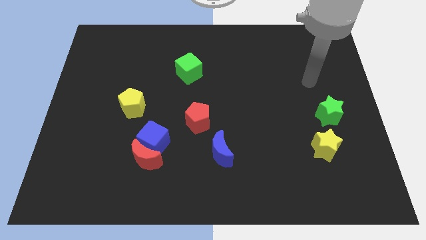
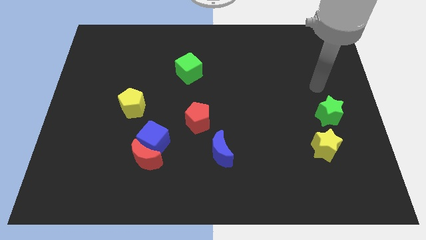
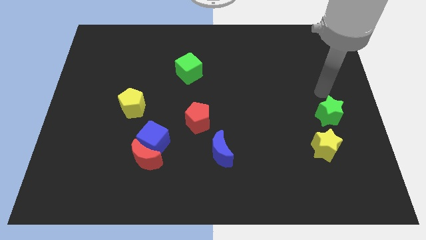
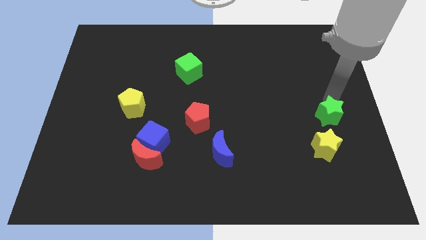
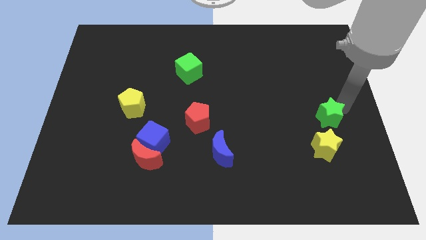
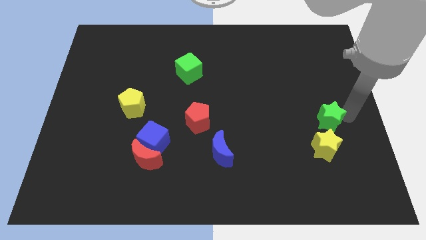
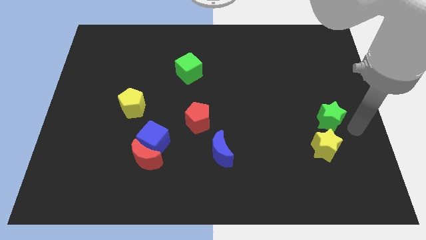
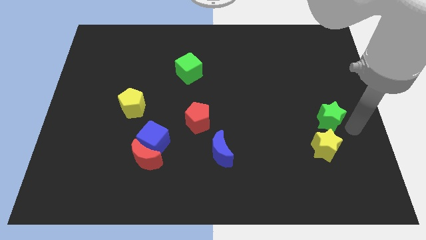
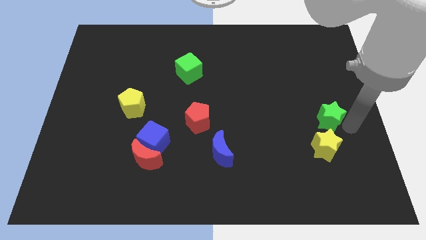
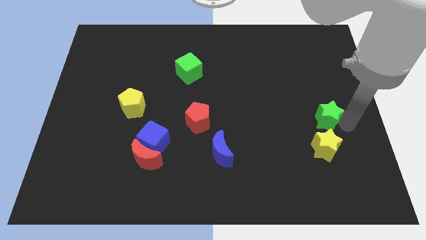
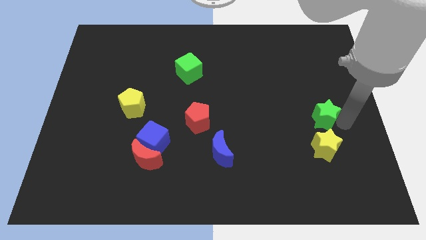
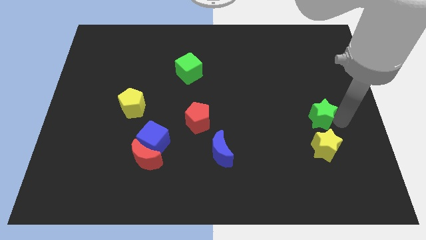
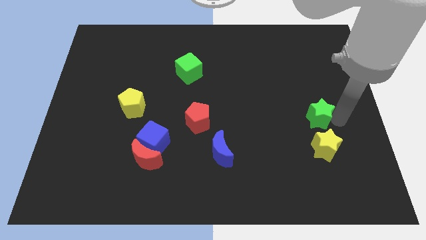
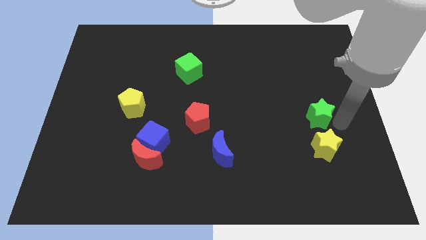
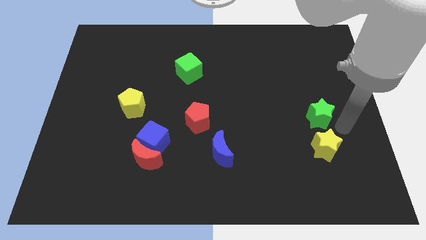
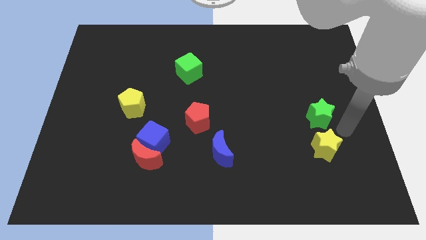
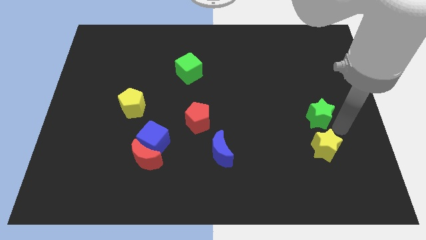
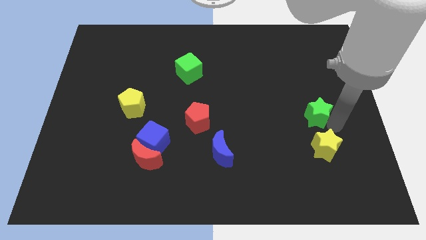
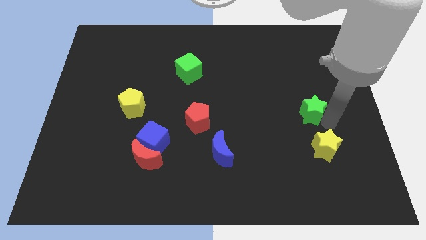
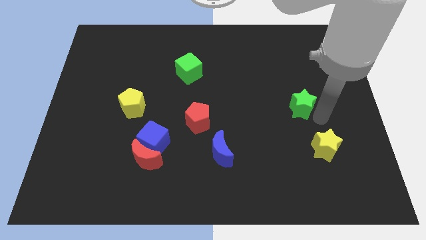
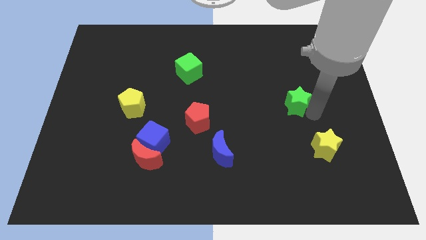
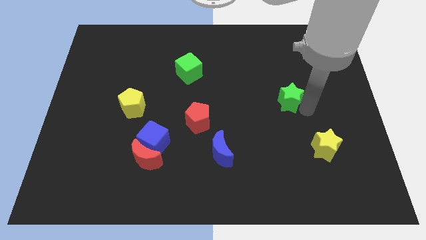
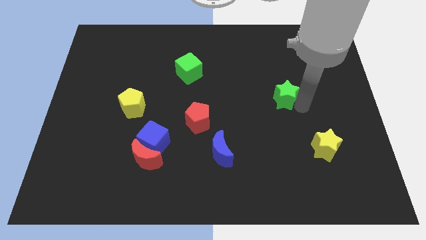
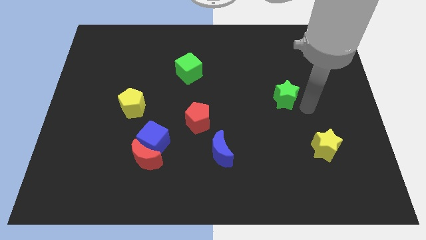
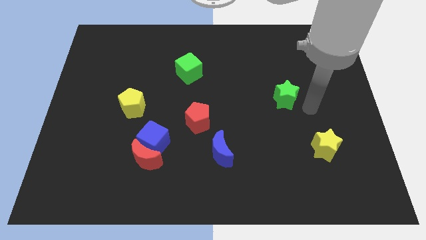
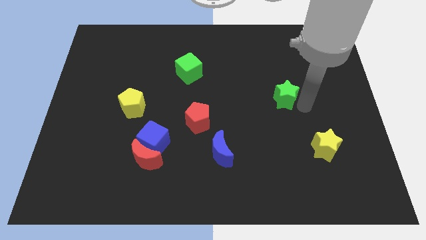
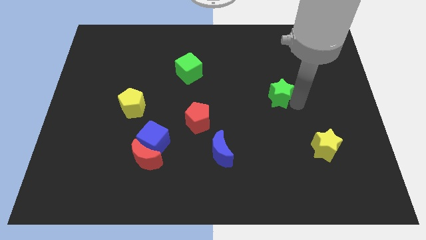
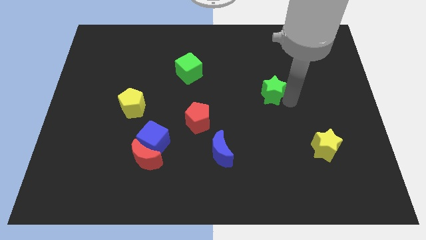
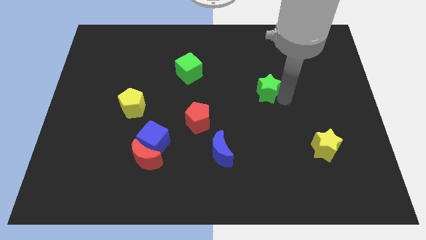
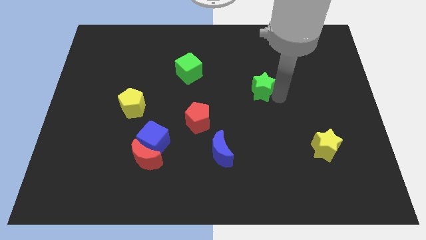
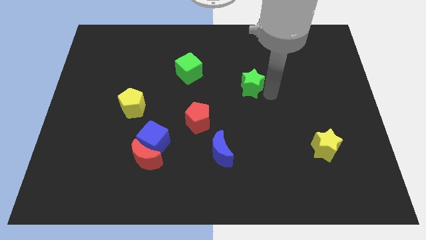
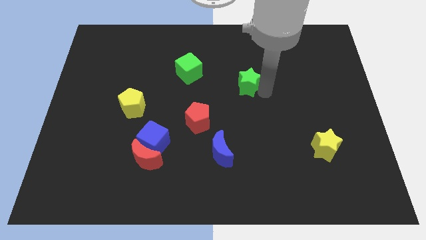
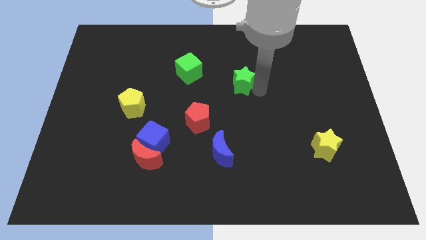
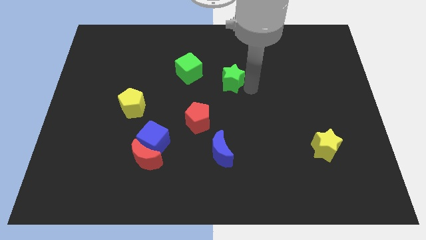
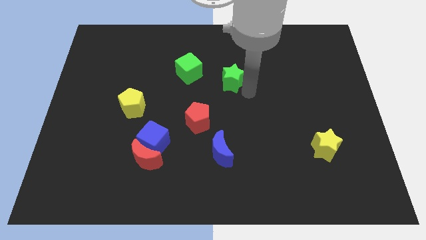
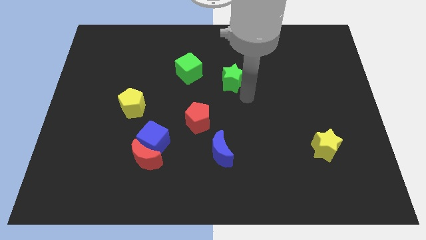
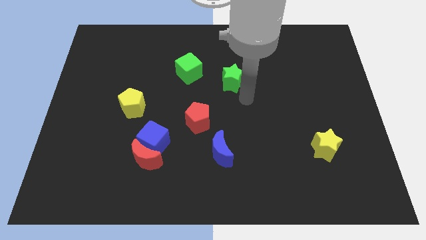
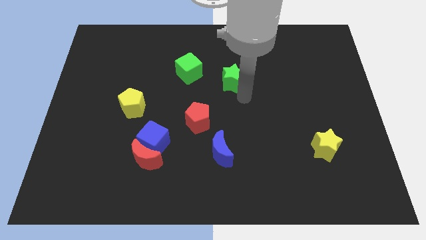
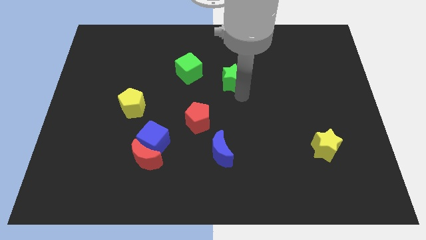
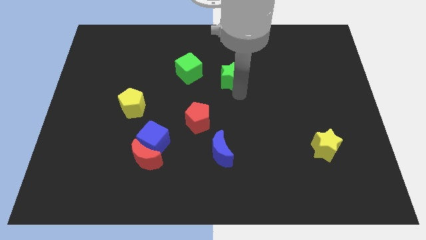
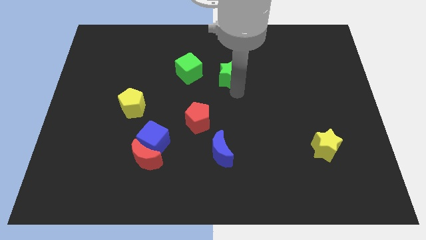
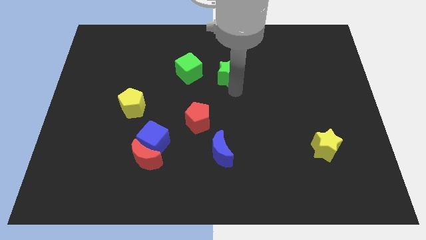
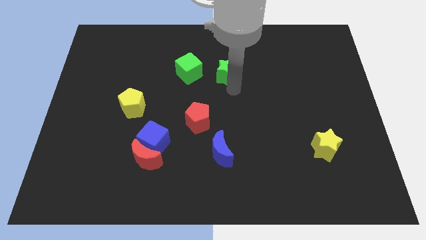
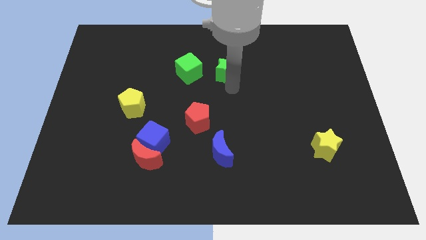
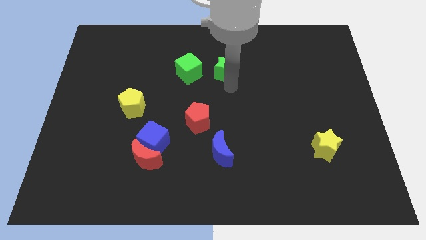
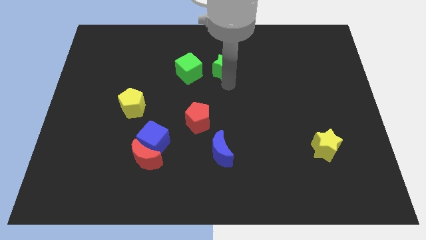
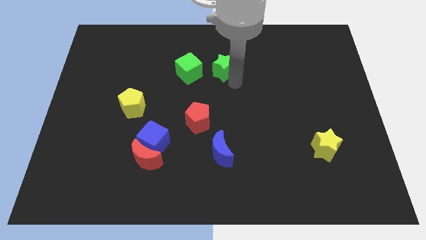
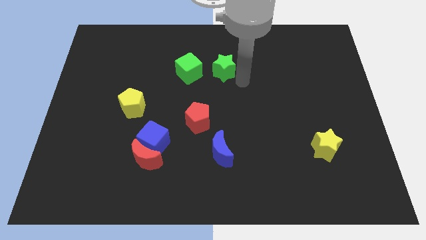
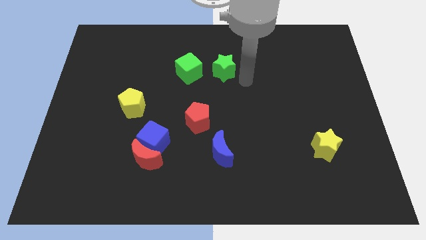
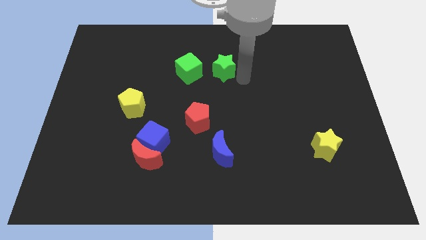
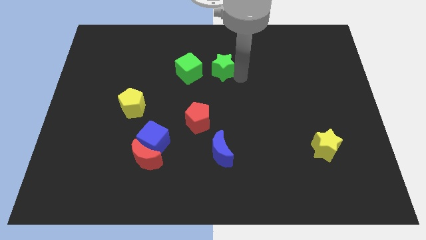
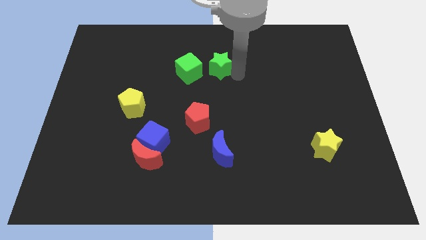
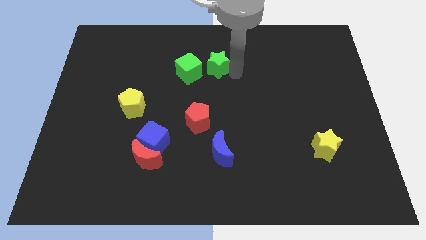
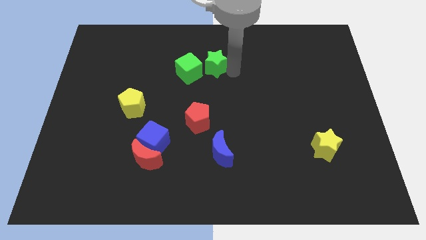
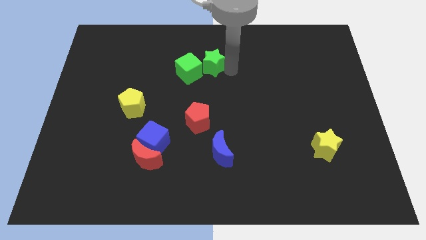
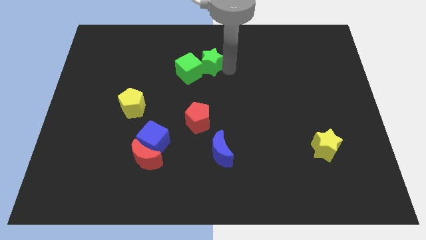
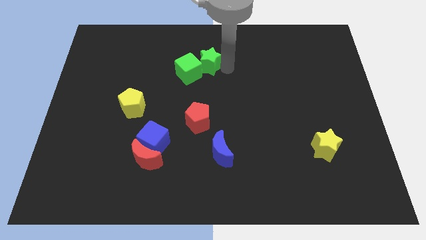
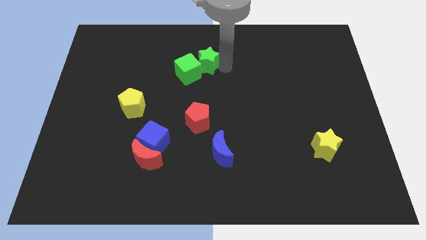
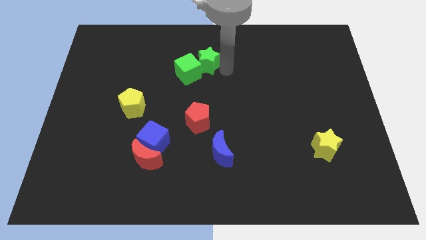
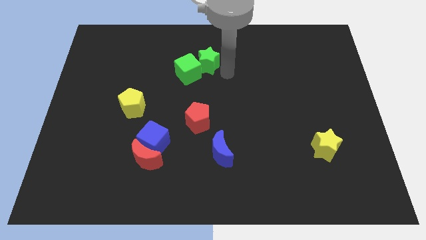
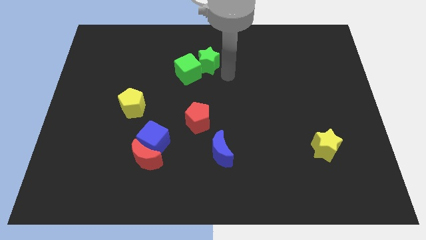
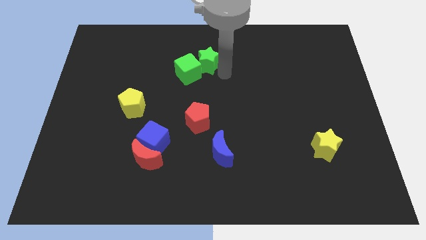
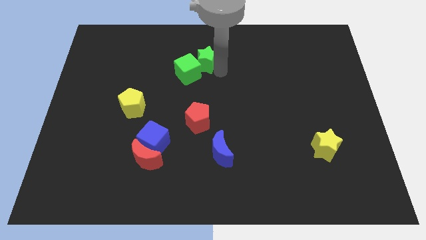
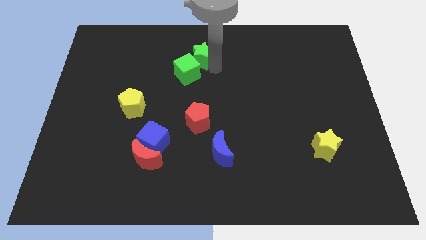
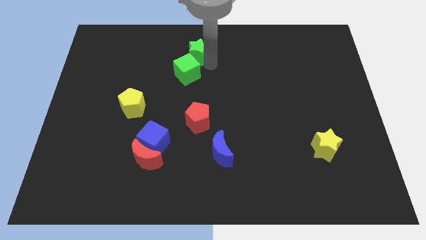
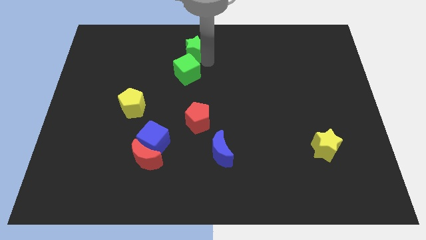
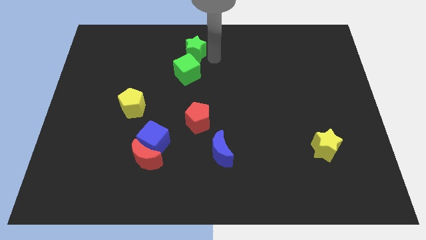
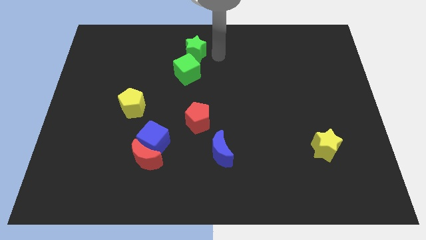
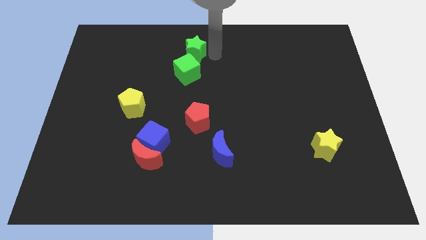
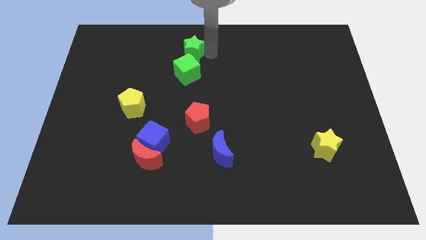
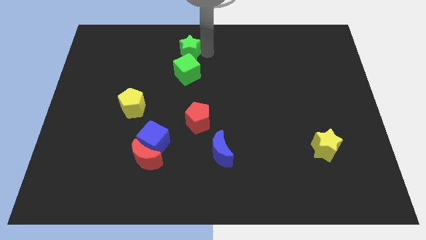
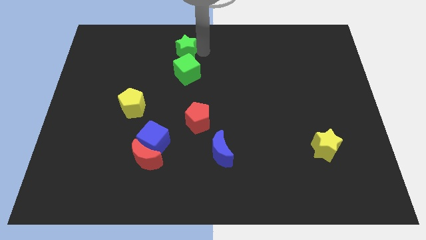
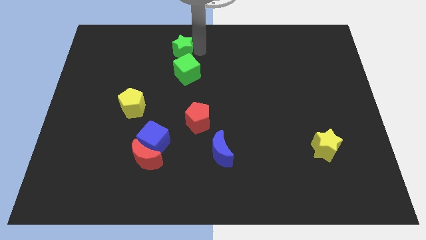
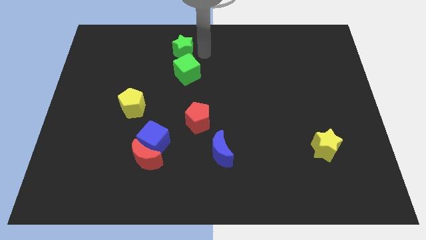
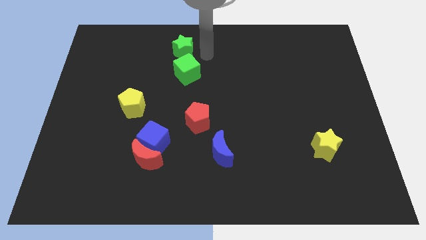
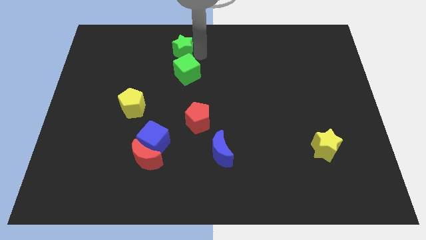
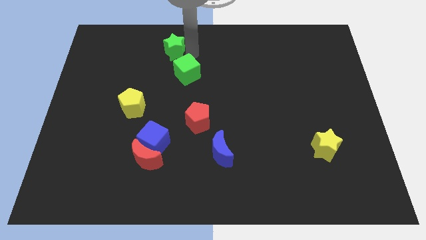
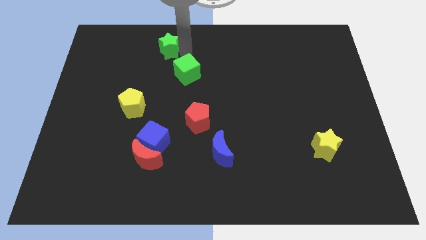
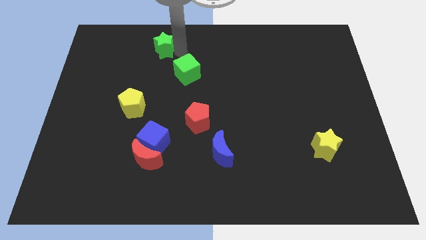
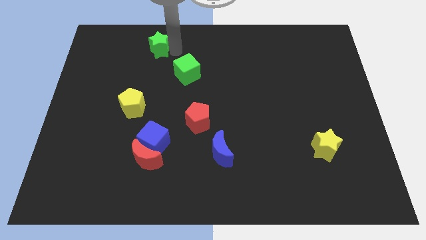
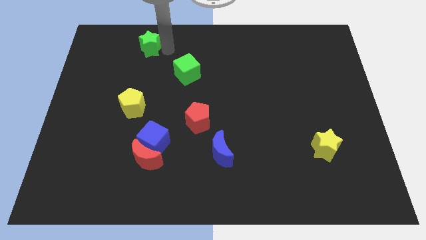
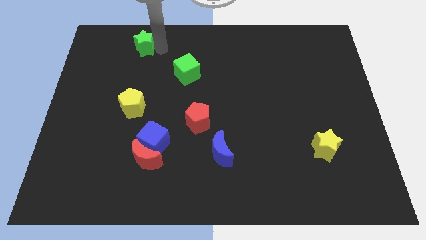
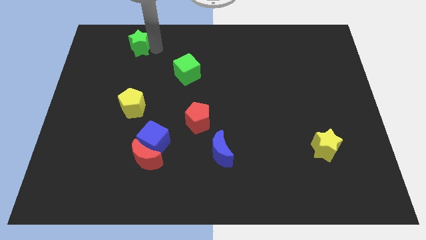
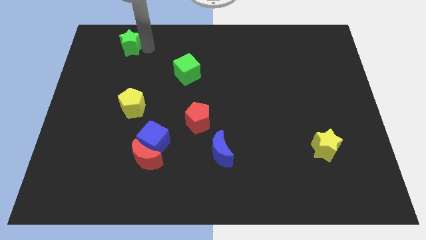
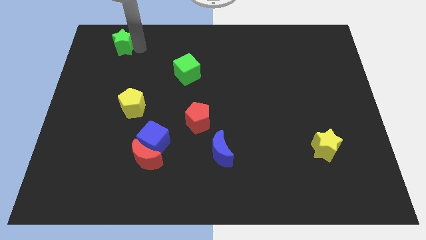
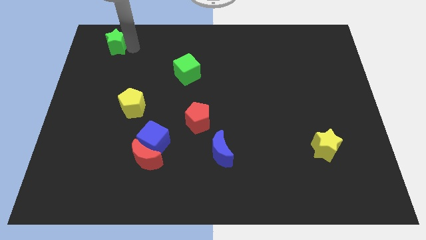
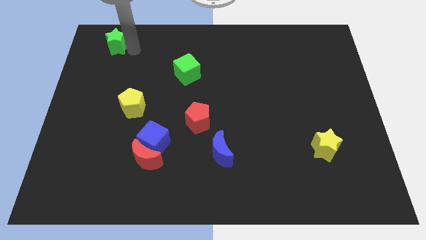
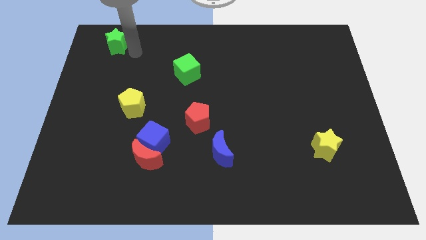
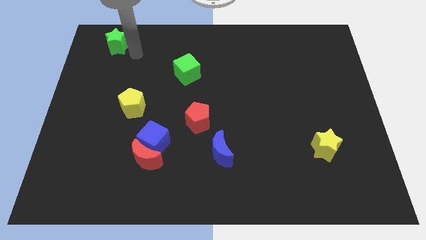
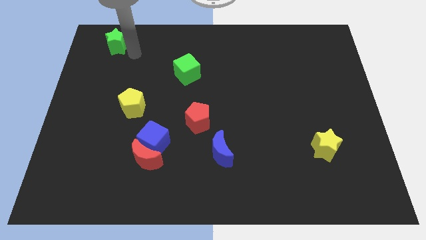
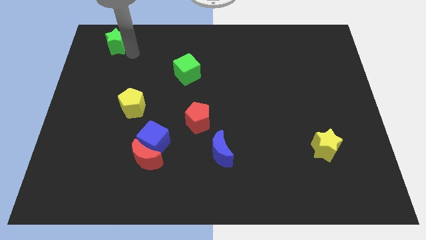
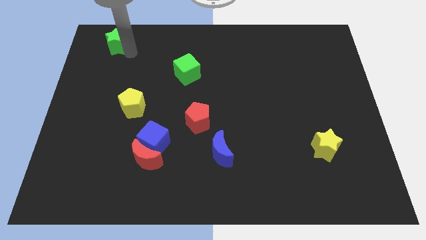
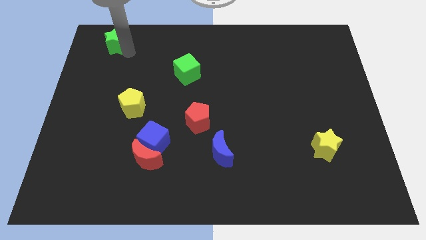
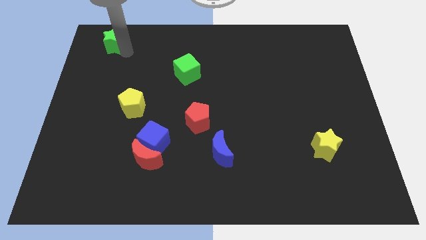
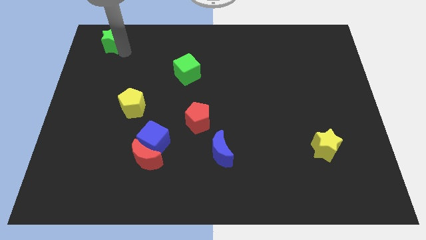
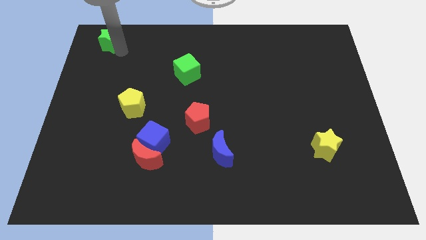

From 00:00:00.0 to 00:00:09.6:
slide the green star to the top left
